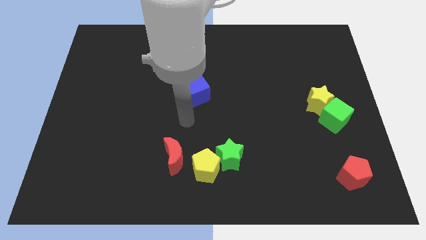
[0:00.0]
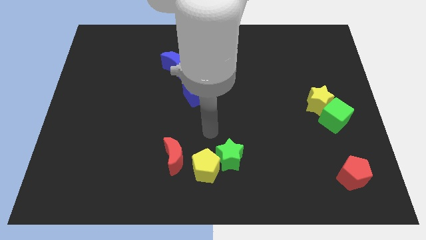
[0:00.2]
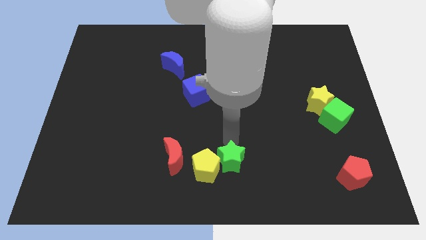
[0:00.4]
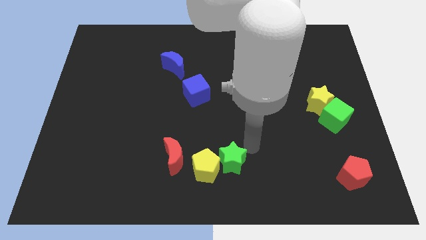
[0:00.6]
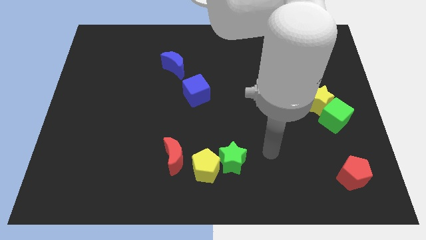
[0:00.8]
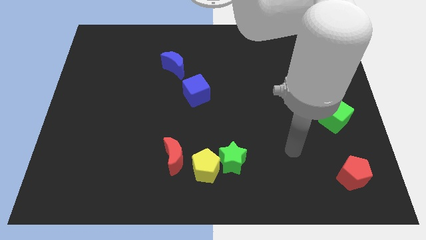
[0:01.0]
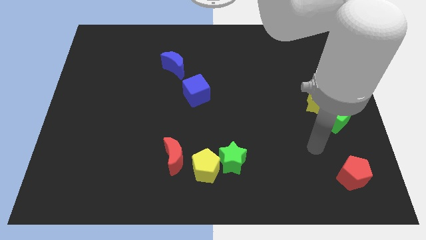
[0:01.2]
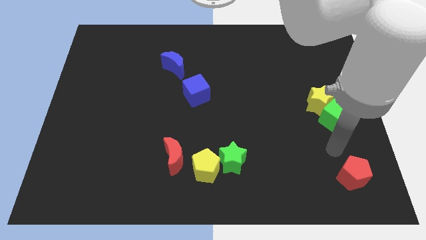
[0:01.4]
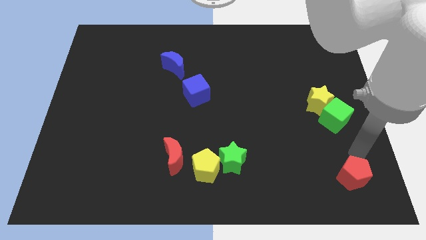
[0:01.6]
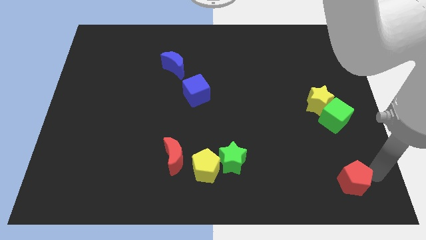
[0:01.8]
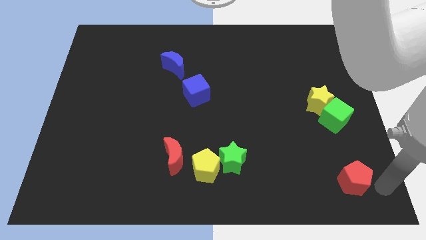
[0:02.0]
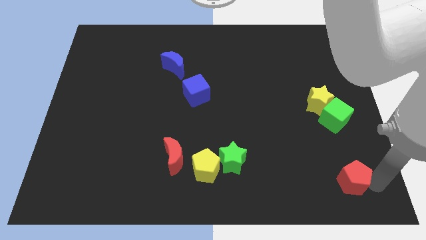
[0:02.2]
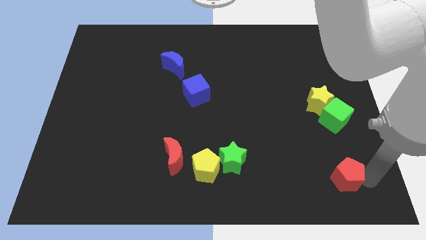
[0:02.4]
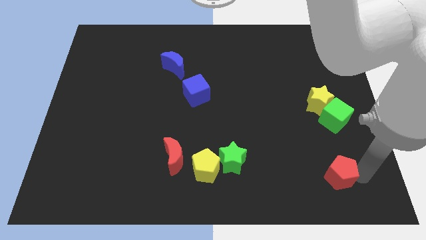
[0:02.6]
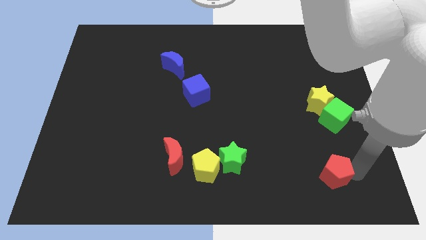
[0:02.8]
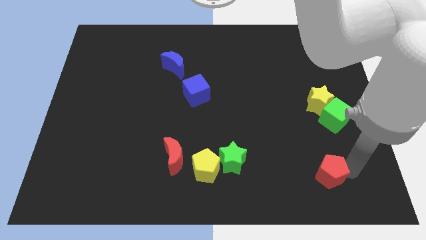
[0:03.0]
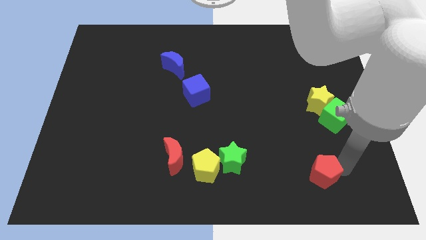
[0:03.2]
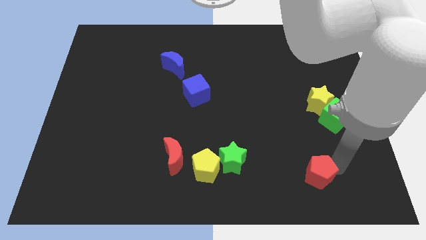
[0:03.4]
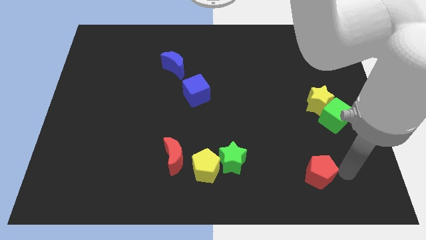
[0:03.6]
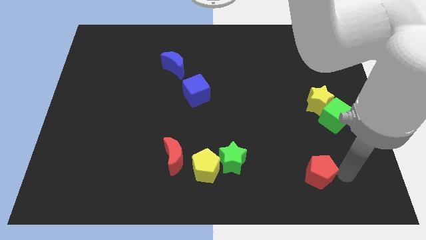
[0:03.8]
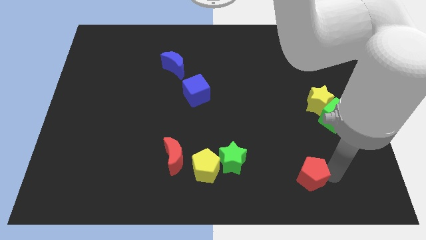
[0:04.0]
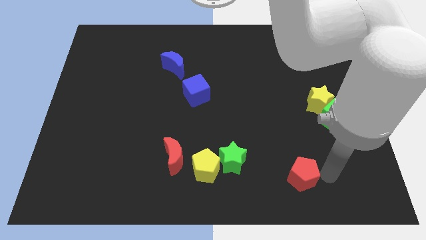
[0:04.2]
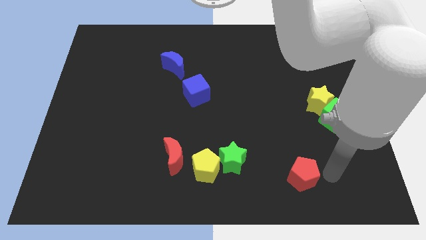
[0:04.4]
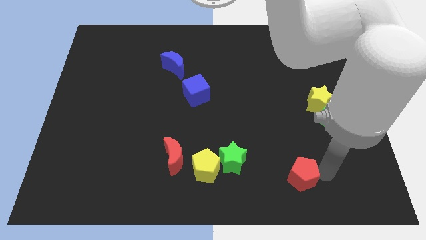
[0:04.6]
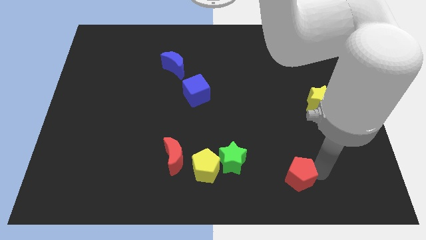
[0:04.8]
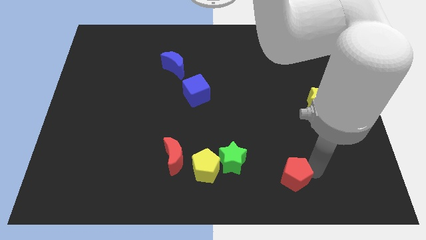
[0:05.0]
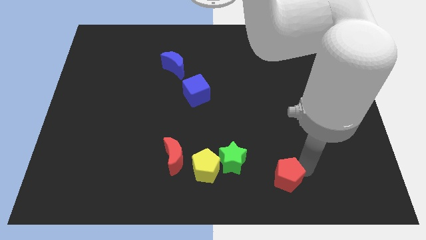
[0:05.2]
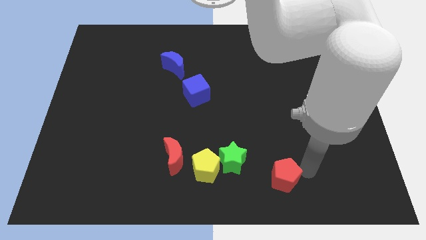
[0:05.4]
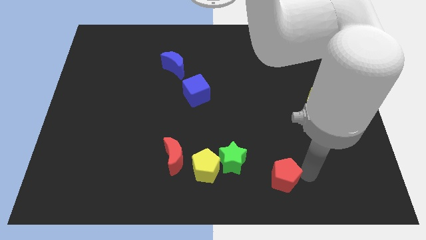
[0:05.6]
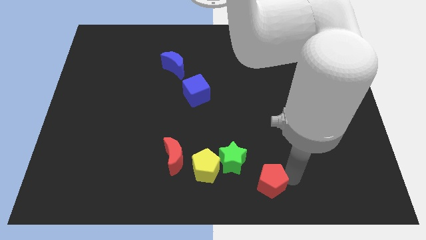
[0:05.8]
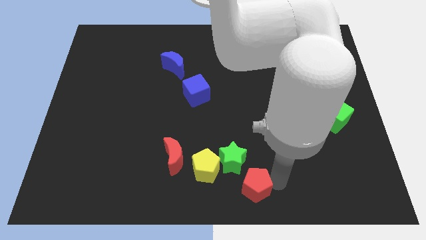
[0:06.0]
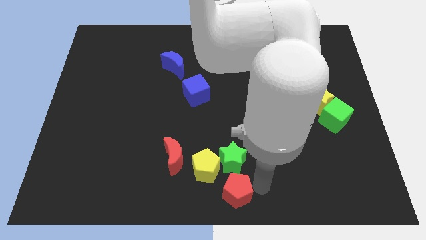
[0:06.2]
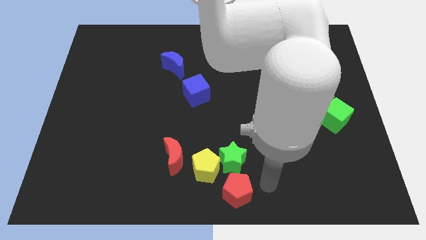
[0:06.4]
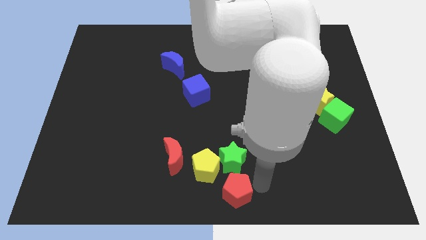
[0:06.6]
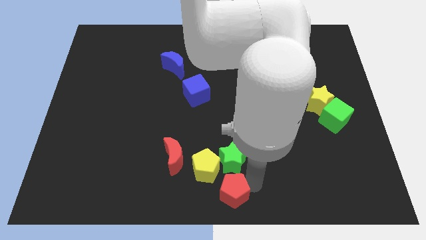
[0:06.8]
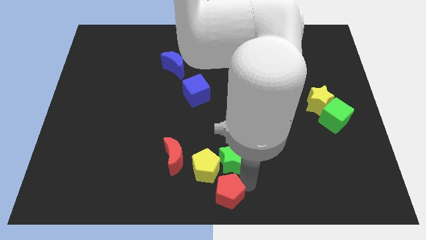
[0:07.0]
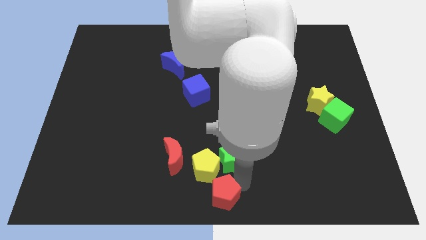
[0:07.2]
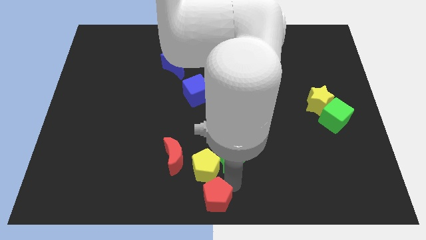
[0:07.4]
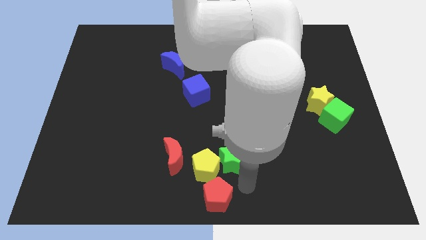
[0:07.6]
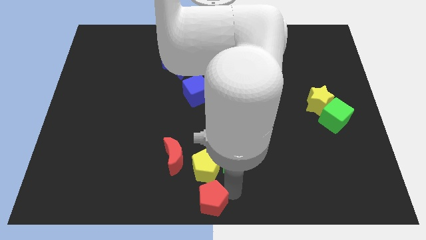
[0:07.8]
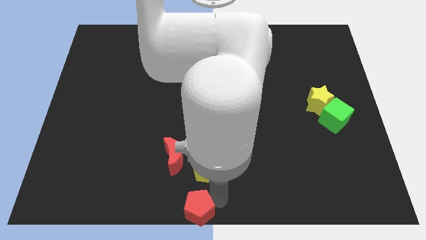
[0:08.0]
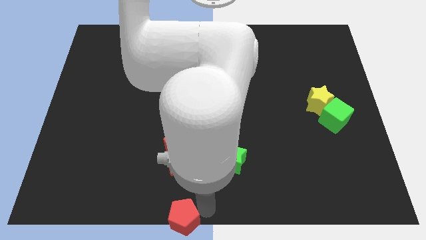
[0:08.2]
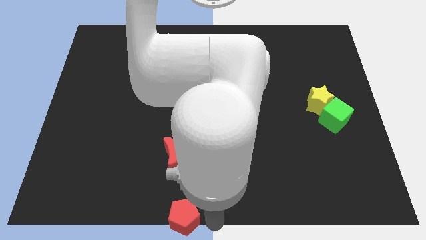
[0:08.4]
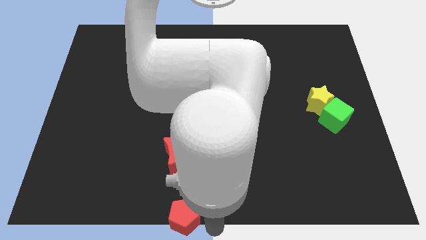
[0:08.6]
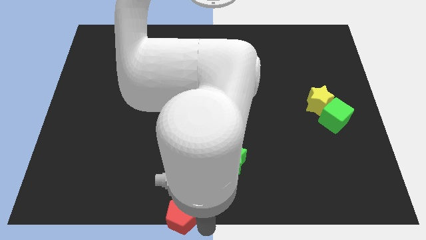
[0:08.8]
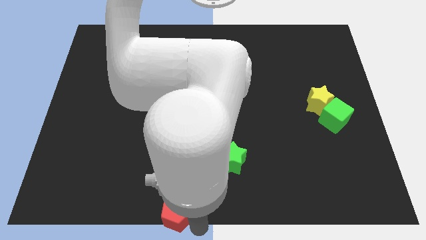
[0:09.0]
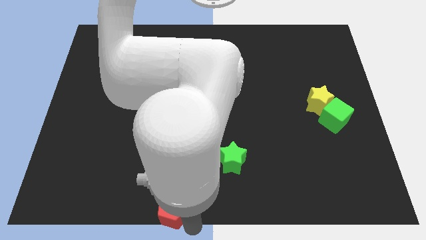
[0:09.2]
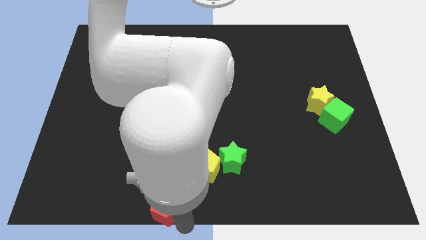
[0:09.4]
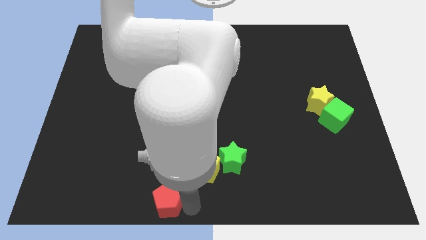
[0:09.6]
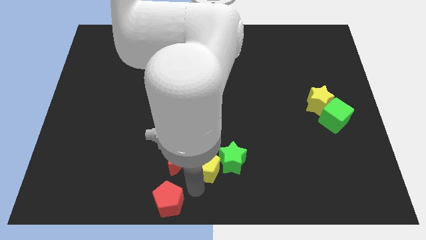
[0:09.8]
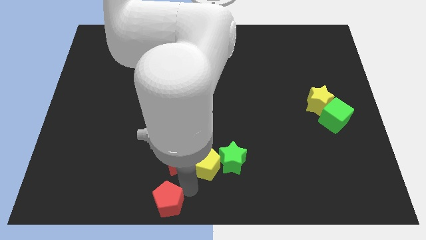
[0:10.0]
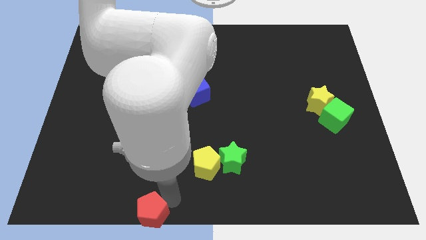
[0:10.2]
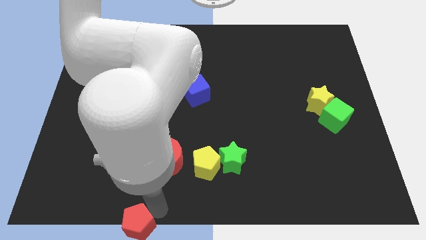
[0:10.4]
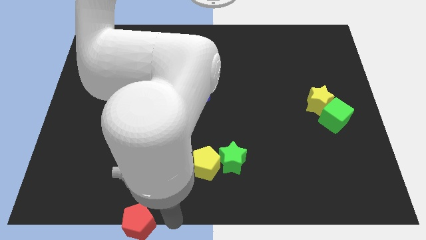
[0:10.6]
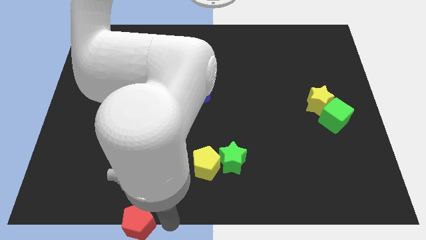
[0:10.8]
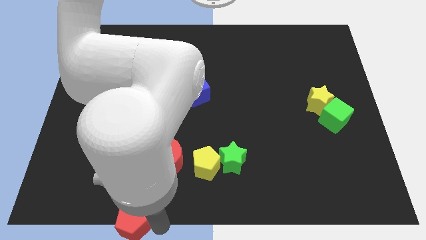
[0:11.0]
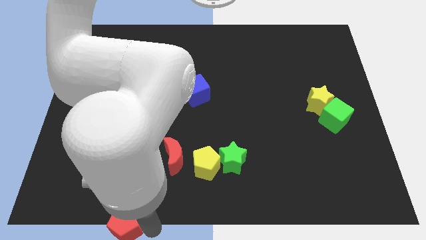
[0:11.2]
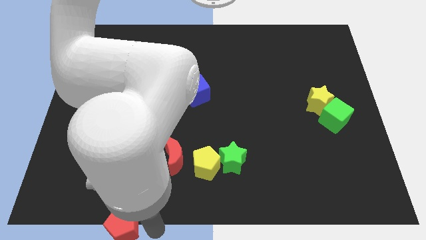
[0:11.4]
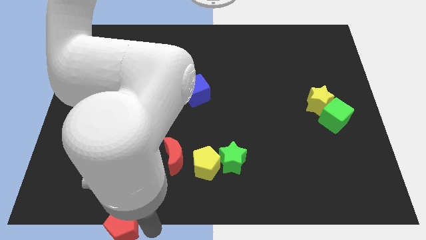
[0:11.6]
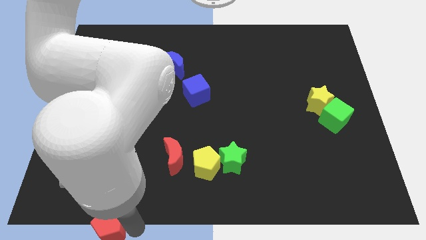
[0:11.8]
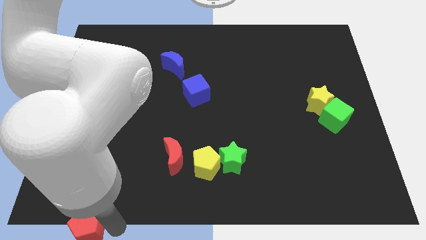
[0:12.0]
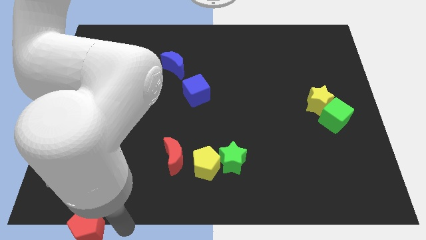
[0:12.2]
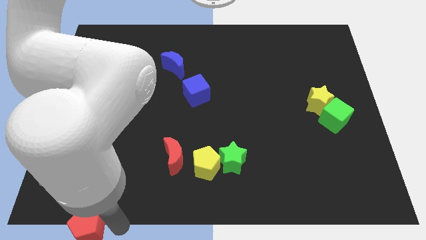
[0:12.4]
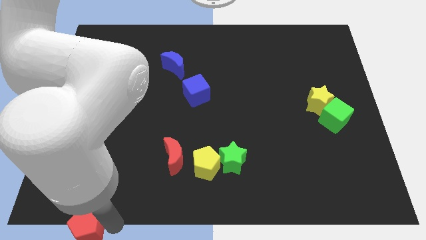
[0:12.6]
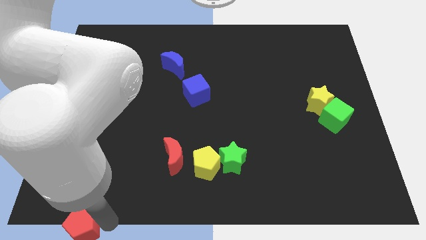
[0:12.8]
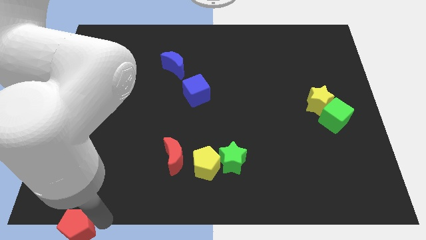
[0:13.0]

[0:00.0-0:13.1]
push the red pentagon to the bottom left corner
